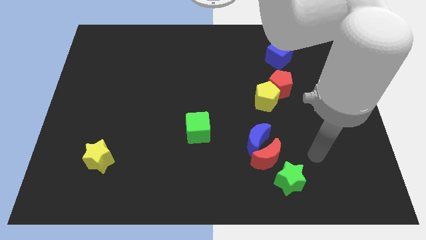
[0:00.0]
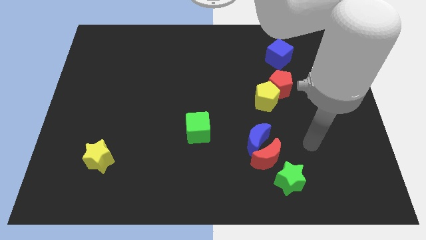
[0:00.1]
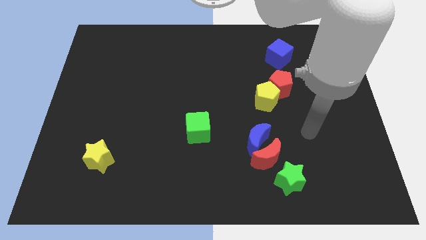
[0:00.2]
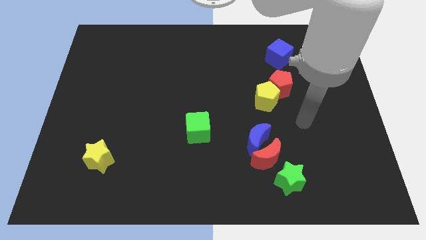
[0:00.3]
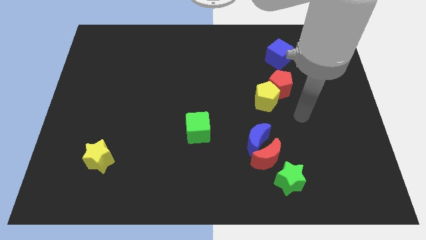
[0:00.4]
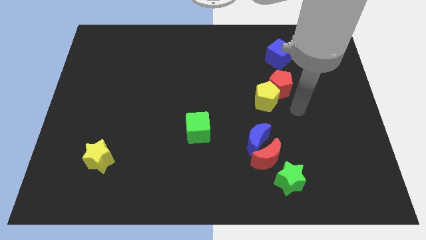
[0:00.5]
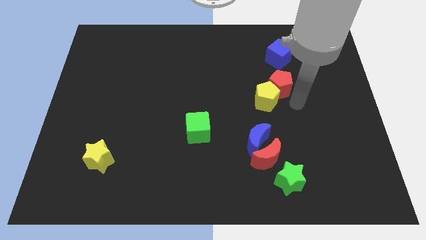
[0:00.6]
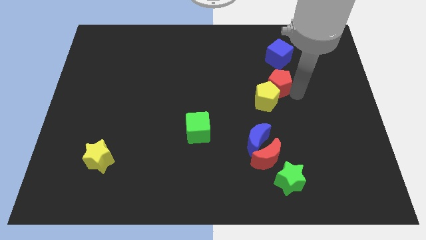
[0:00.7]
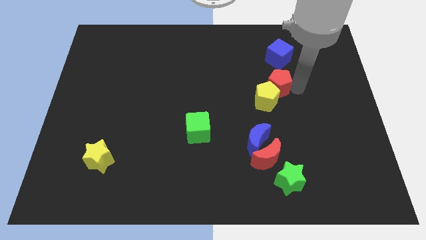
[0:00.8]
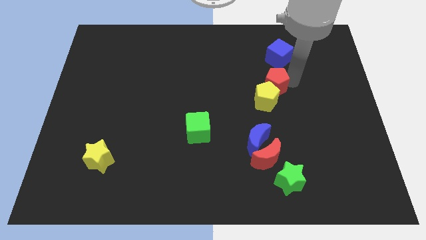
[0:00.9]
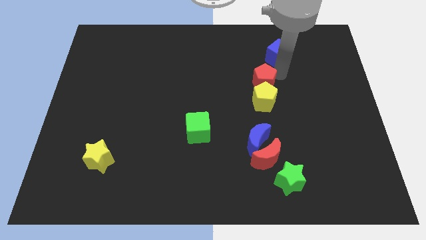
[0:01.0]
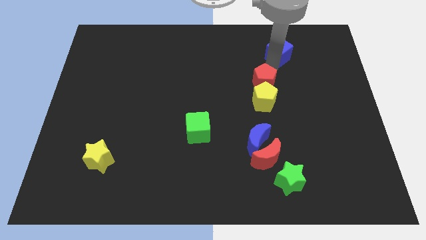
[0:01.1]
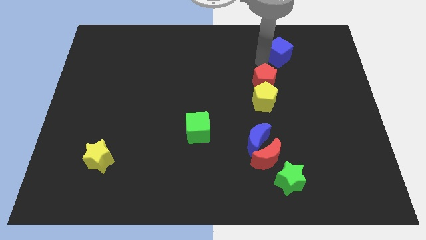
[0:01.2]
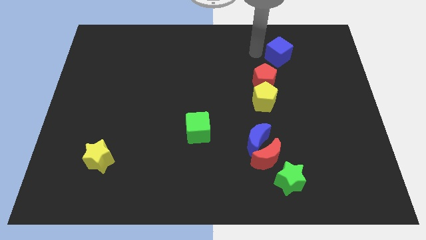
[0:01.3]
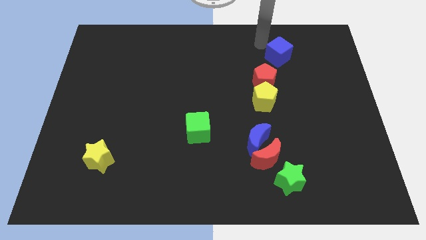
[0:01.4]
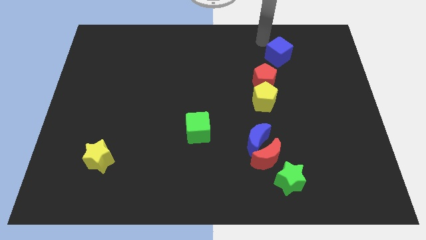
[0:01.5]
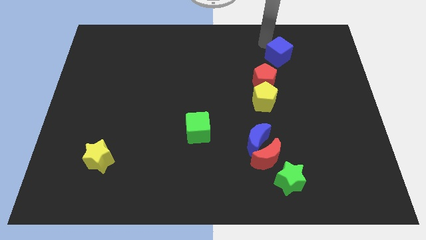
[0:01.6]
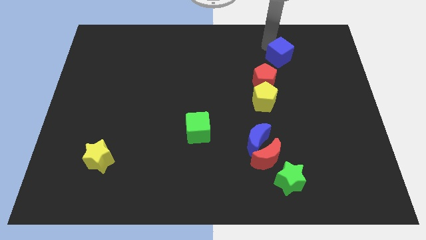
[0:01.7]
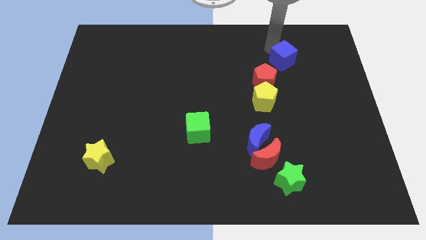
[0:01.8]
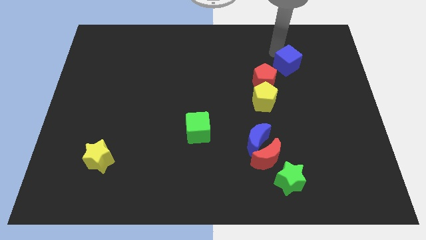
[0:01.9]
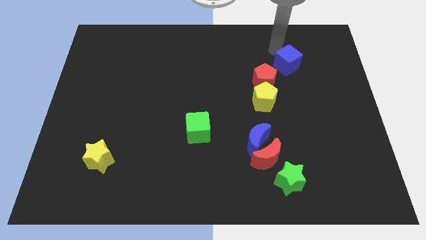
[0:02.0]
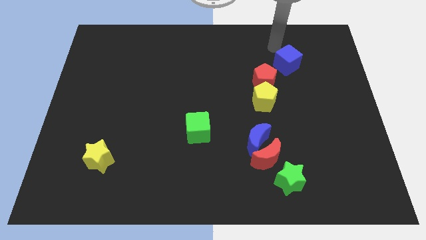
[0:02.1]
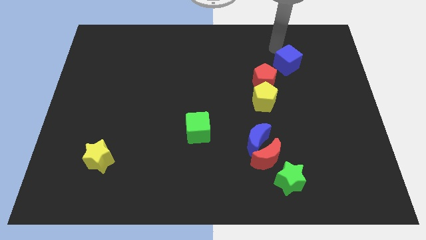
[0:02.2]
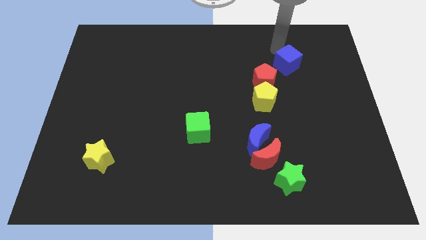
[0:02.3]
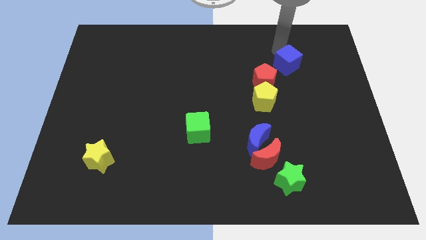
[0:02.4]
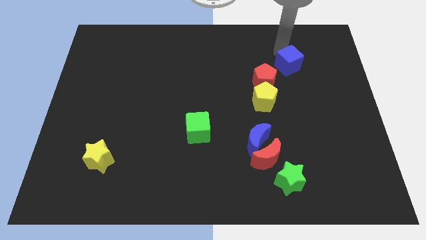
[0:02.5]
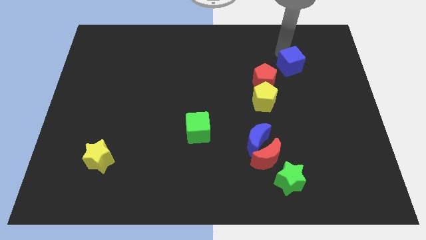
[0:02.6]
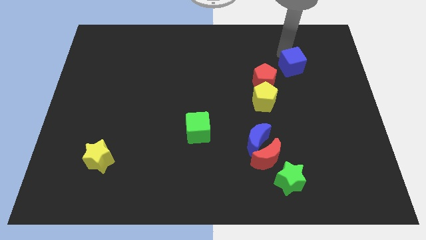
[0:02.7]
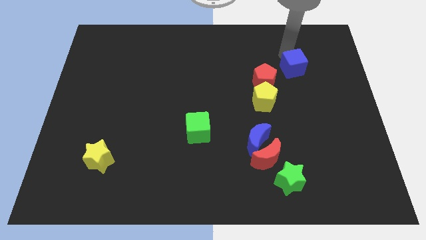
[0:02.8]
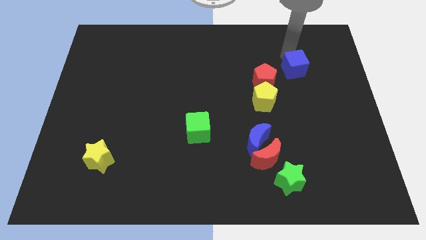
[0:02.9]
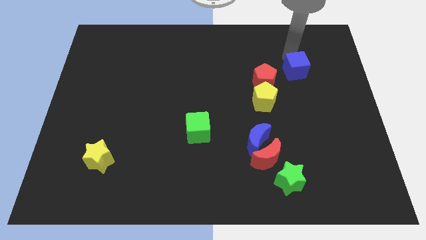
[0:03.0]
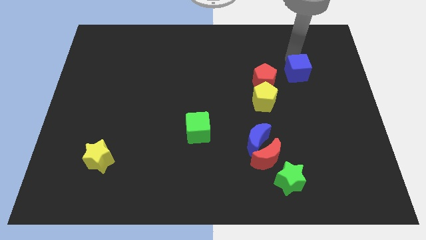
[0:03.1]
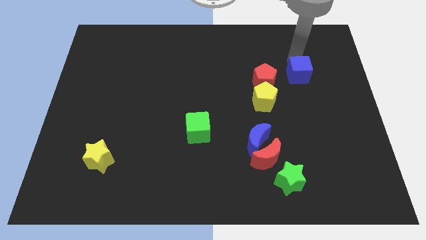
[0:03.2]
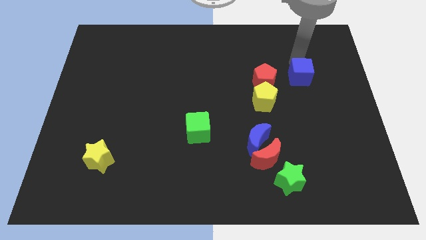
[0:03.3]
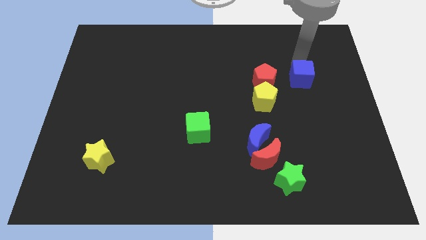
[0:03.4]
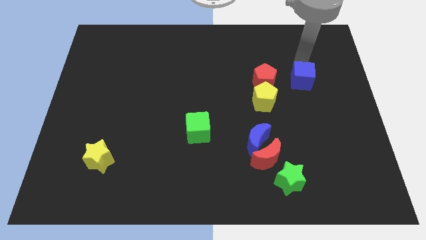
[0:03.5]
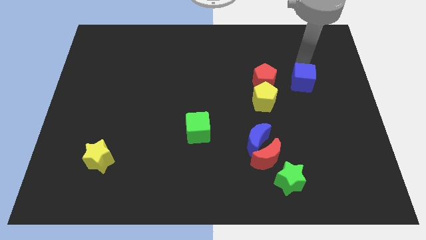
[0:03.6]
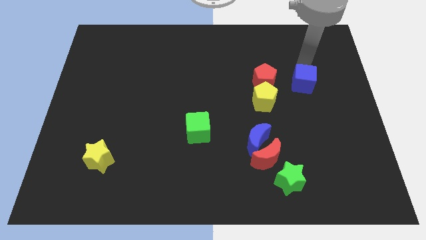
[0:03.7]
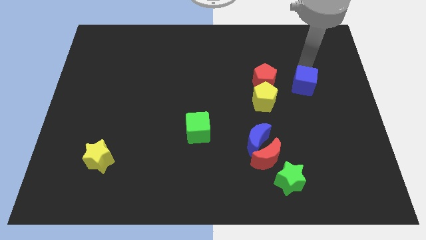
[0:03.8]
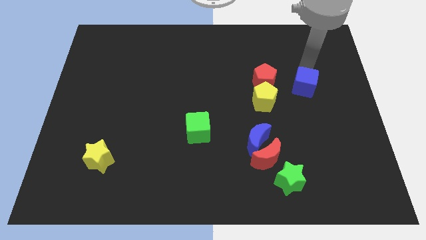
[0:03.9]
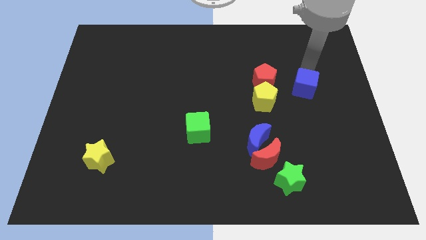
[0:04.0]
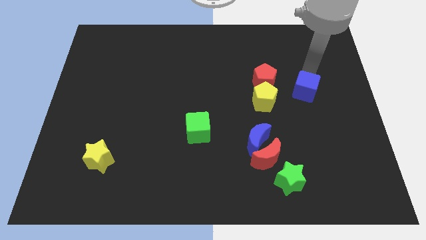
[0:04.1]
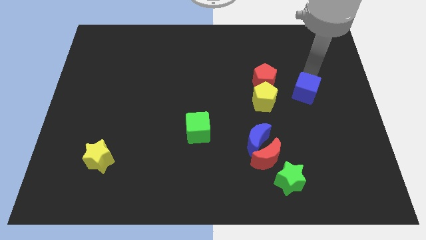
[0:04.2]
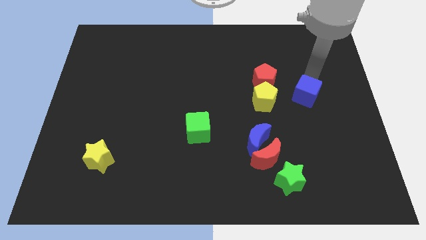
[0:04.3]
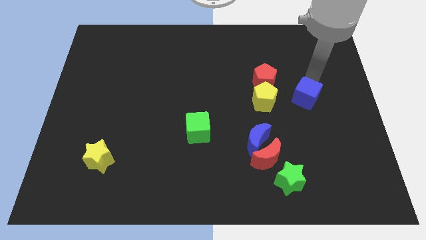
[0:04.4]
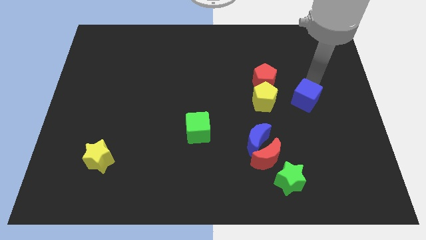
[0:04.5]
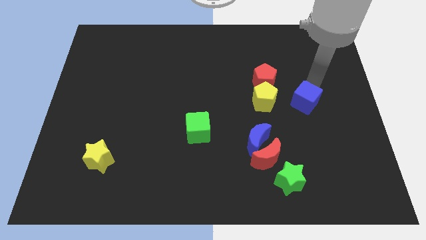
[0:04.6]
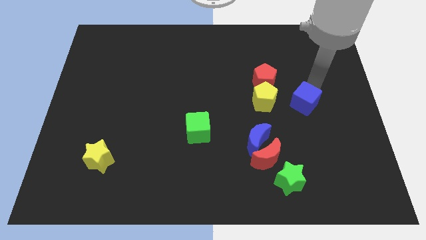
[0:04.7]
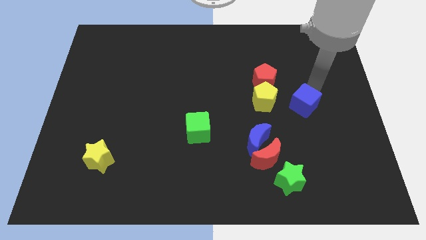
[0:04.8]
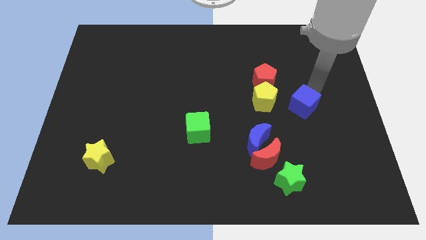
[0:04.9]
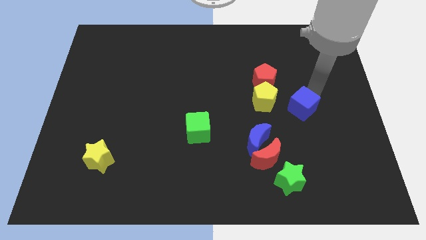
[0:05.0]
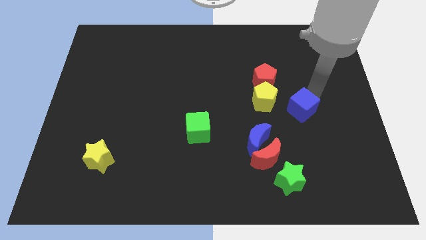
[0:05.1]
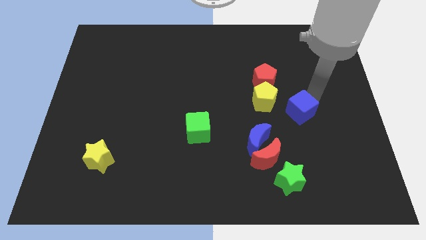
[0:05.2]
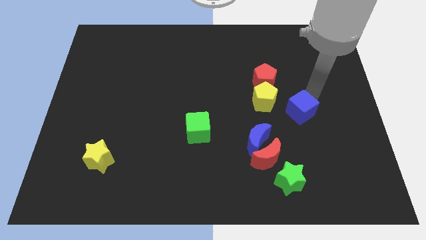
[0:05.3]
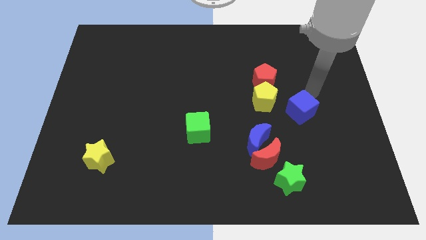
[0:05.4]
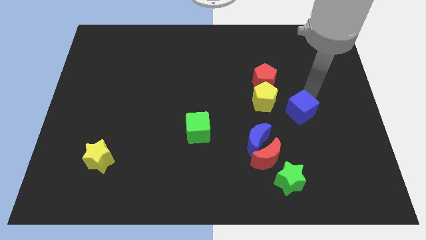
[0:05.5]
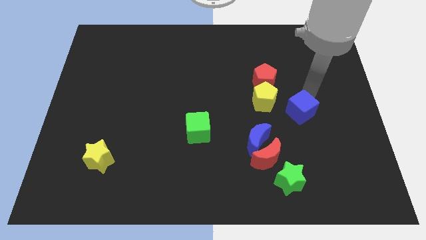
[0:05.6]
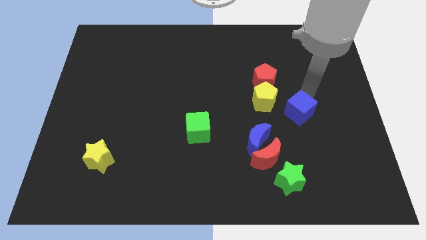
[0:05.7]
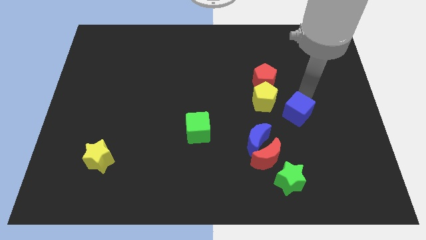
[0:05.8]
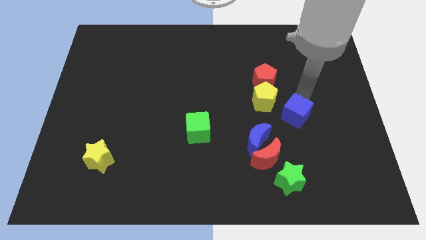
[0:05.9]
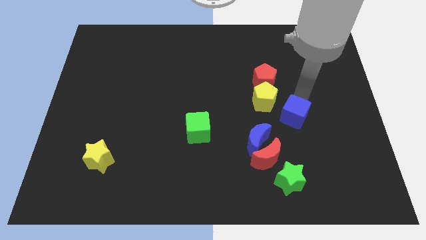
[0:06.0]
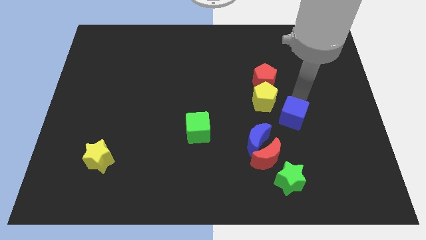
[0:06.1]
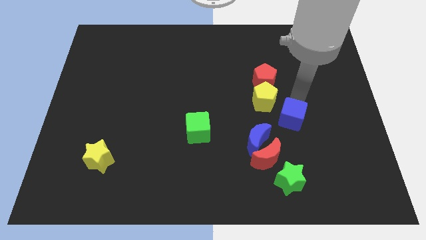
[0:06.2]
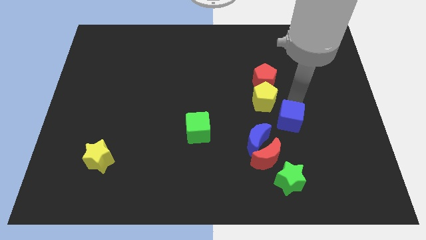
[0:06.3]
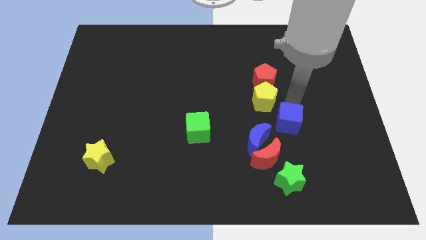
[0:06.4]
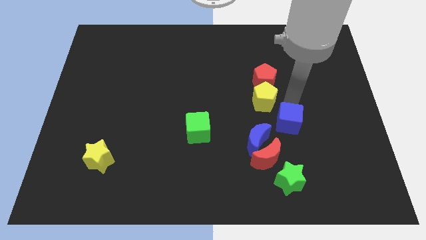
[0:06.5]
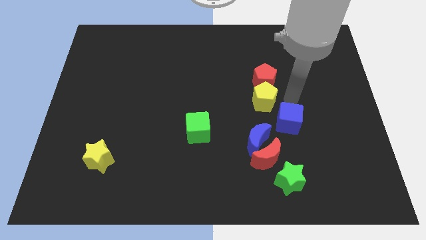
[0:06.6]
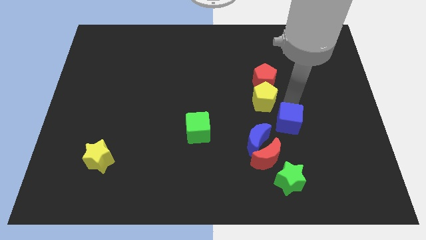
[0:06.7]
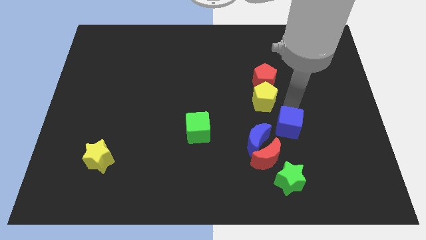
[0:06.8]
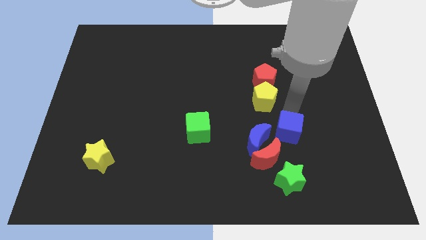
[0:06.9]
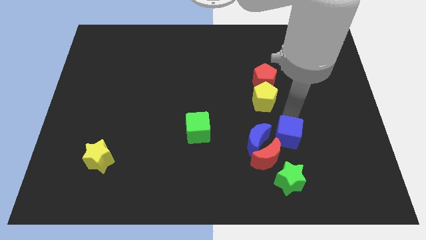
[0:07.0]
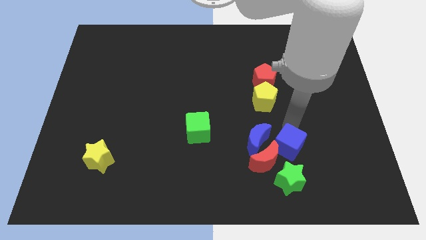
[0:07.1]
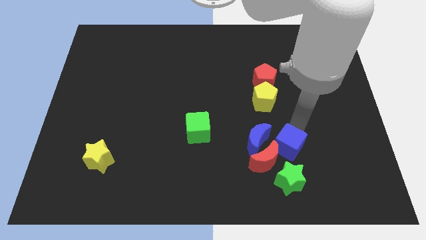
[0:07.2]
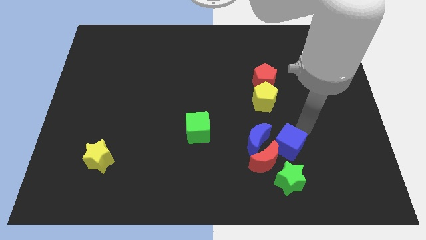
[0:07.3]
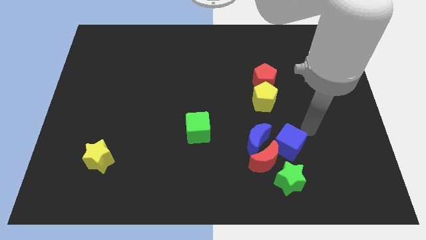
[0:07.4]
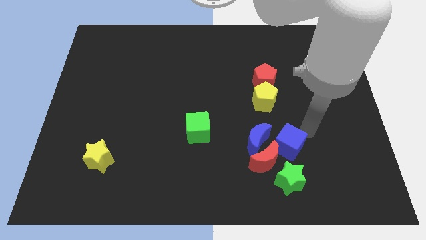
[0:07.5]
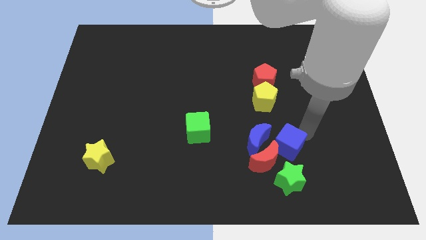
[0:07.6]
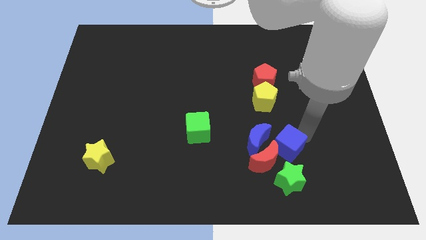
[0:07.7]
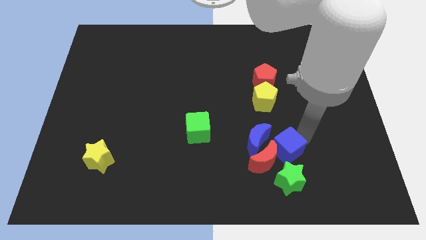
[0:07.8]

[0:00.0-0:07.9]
put the blue cube towards the red moon

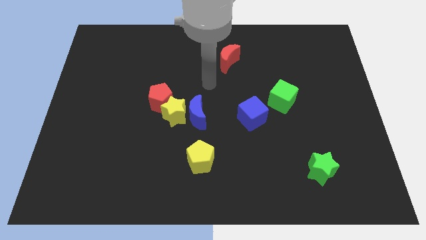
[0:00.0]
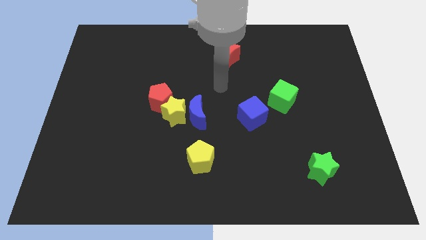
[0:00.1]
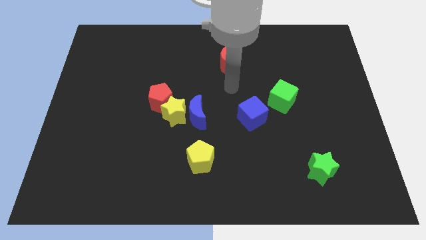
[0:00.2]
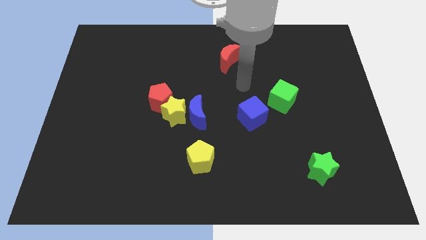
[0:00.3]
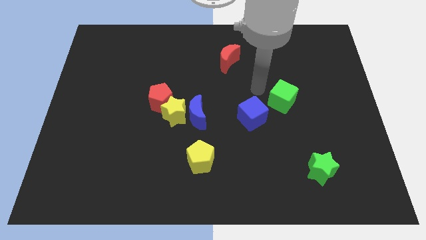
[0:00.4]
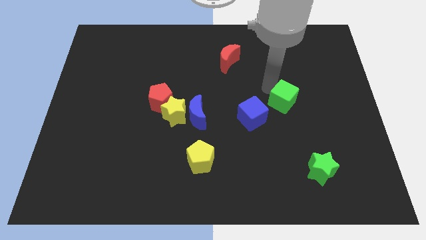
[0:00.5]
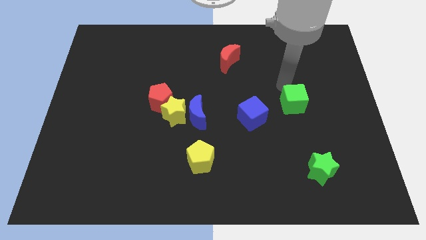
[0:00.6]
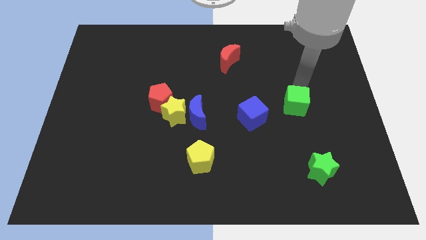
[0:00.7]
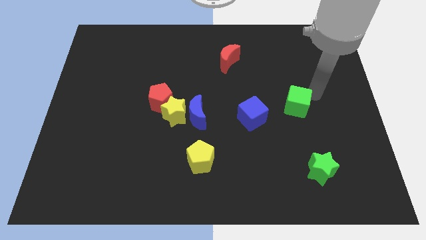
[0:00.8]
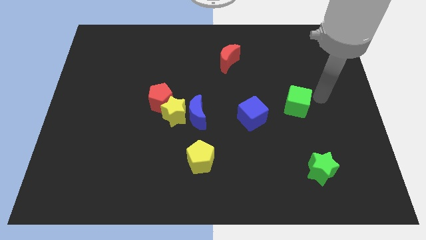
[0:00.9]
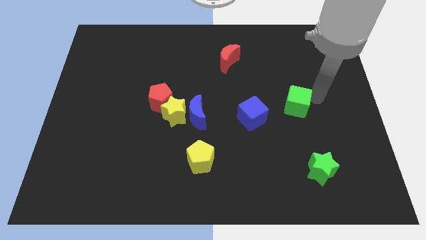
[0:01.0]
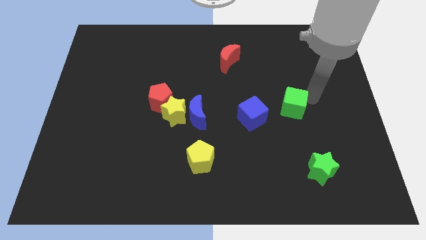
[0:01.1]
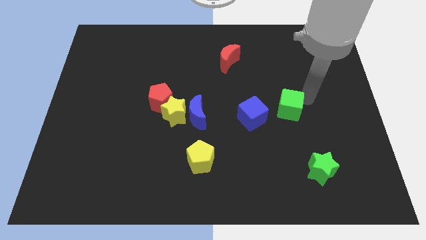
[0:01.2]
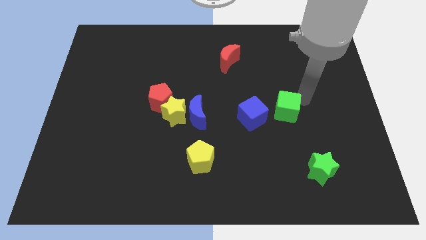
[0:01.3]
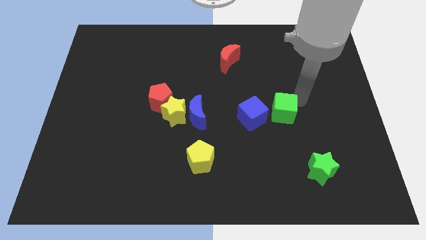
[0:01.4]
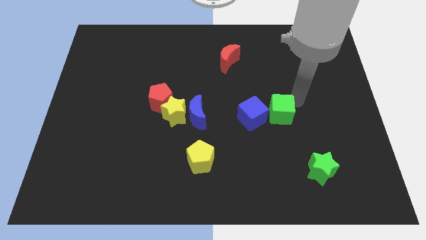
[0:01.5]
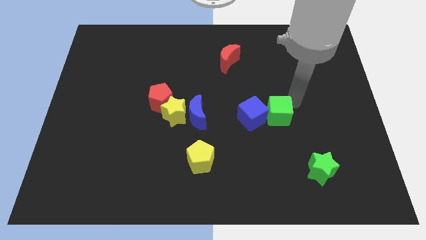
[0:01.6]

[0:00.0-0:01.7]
put the green cube close to the blue cube
